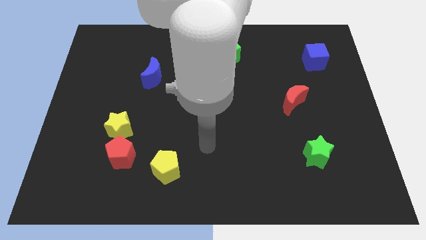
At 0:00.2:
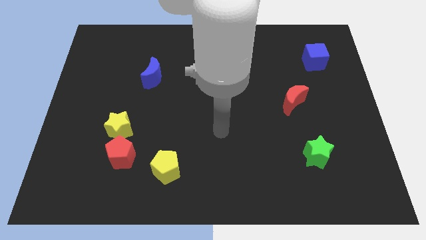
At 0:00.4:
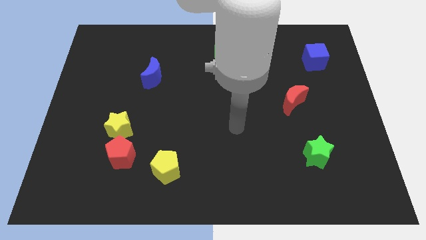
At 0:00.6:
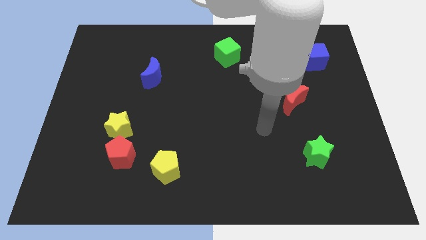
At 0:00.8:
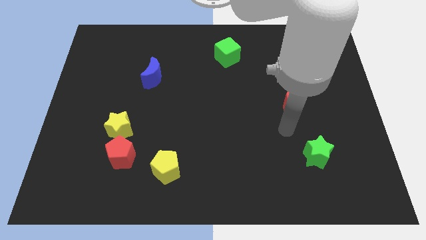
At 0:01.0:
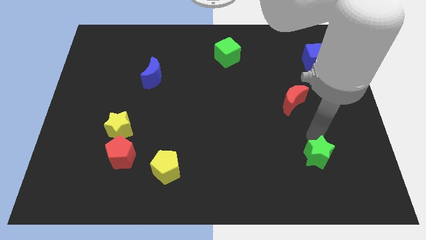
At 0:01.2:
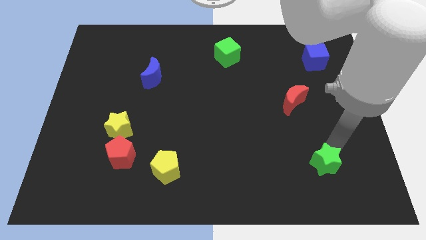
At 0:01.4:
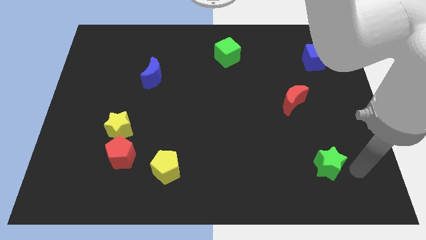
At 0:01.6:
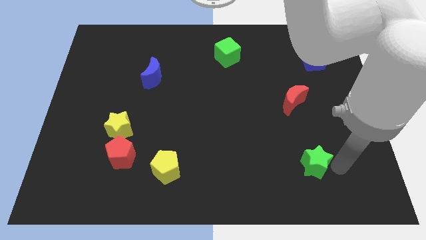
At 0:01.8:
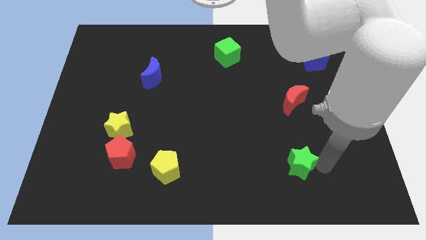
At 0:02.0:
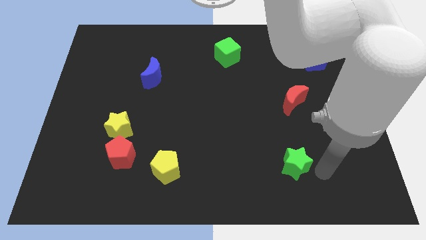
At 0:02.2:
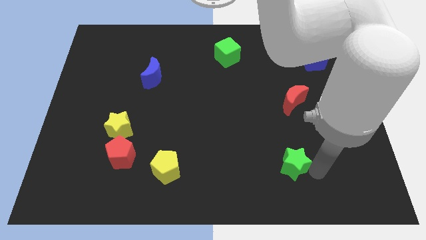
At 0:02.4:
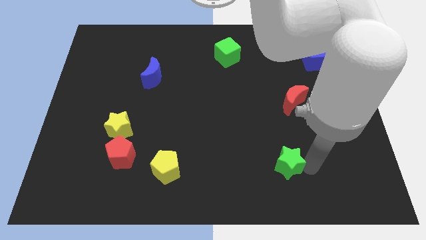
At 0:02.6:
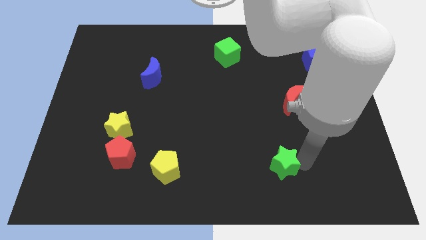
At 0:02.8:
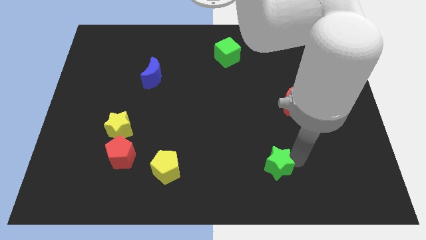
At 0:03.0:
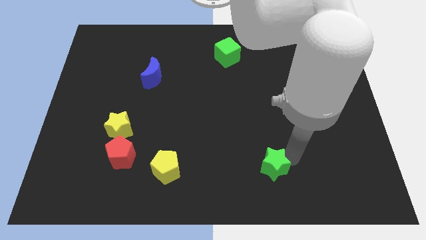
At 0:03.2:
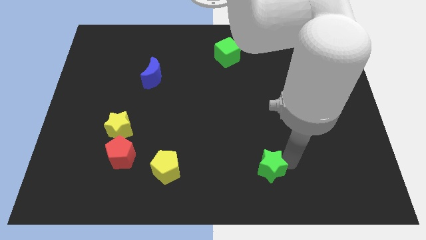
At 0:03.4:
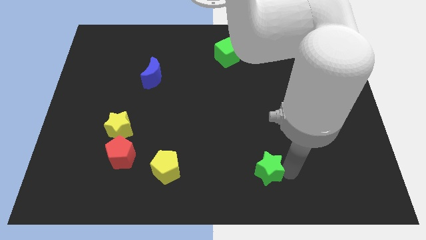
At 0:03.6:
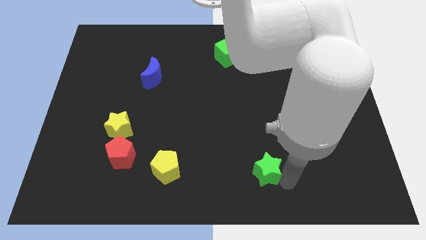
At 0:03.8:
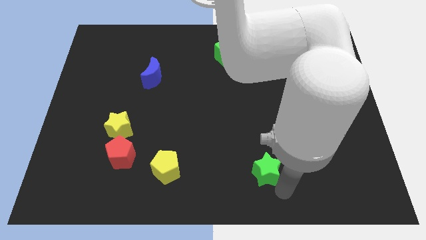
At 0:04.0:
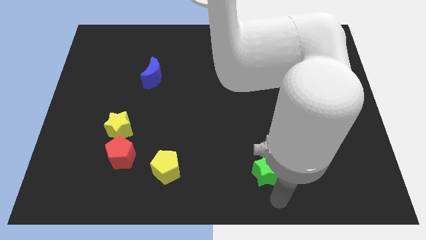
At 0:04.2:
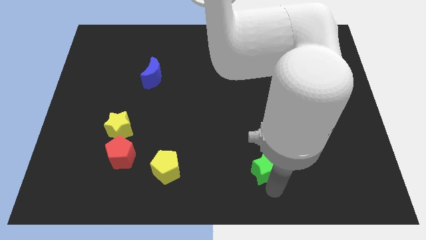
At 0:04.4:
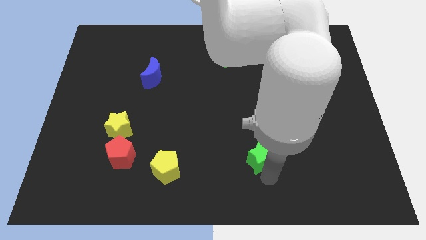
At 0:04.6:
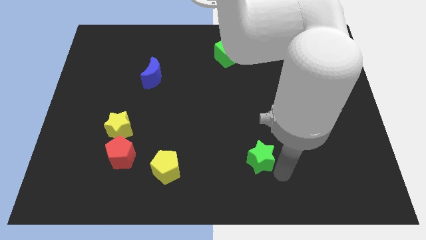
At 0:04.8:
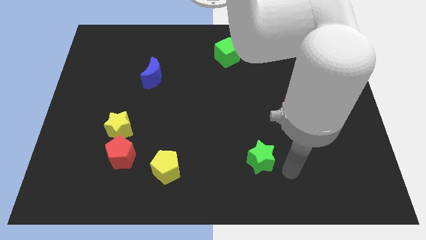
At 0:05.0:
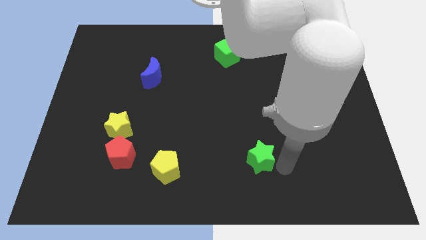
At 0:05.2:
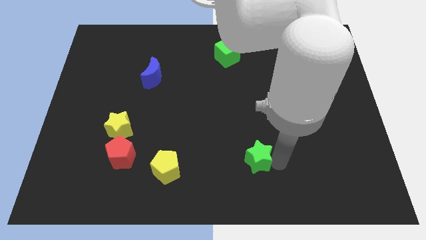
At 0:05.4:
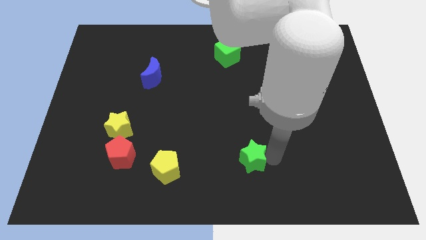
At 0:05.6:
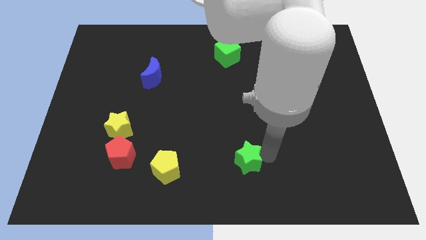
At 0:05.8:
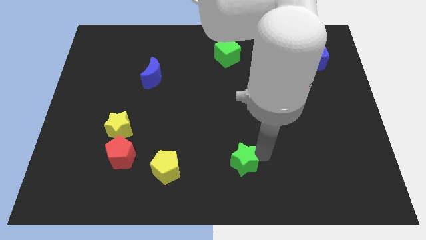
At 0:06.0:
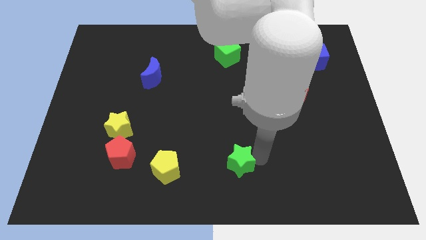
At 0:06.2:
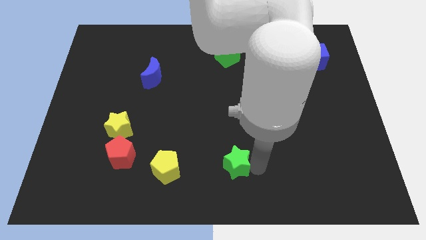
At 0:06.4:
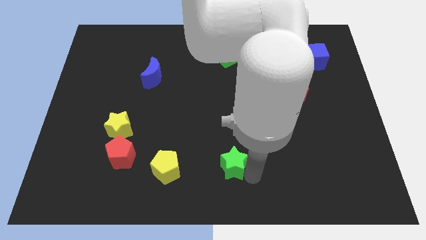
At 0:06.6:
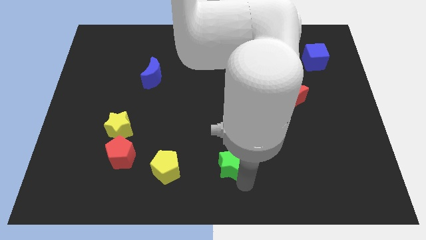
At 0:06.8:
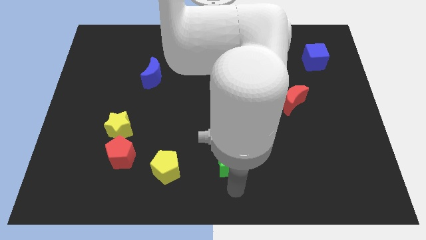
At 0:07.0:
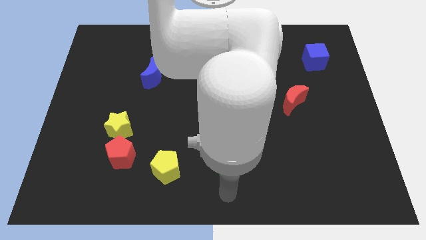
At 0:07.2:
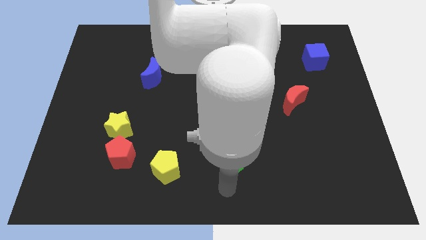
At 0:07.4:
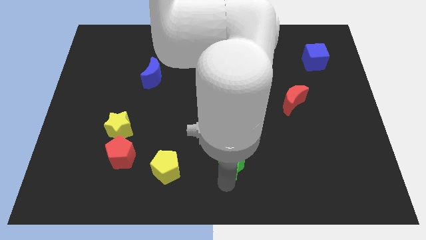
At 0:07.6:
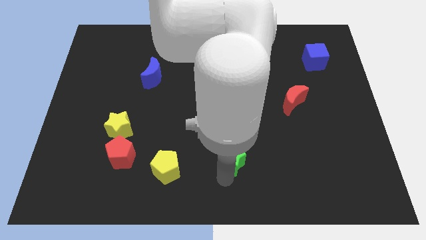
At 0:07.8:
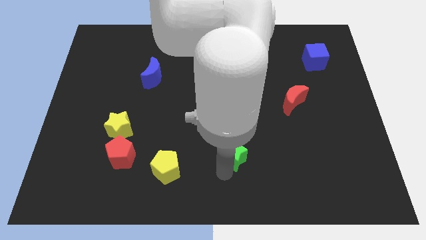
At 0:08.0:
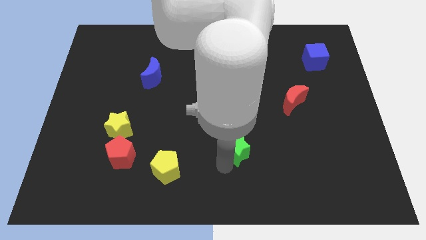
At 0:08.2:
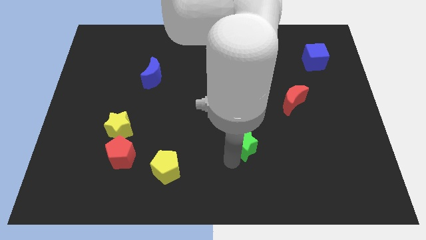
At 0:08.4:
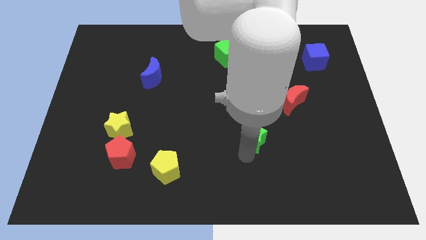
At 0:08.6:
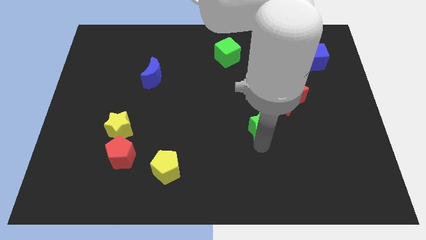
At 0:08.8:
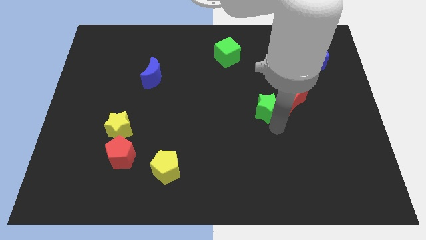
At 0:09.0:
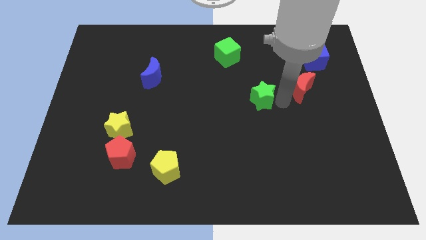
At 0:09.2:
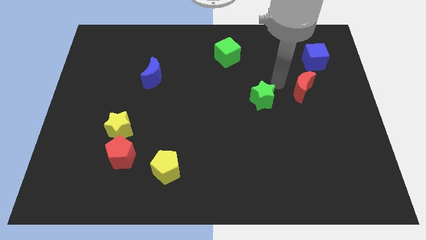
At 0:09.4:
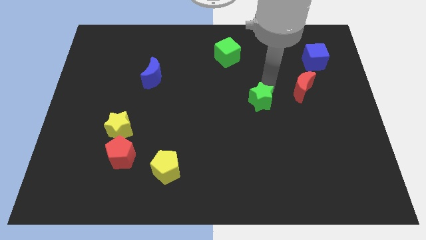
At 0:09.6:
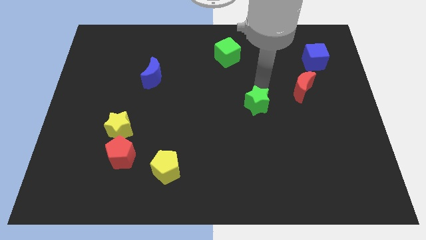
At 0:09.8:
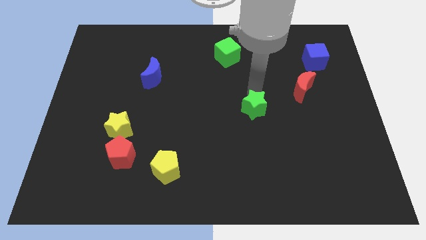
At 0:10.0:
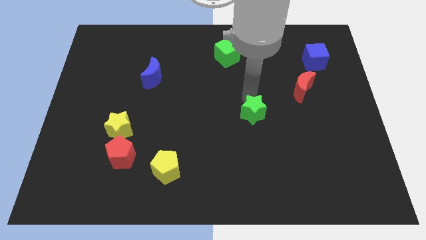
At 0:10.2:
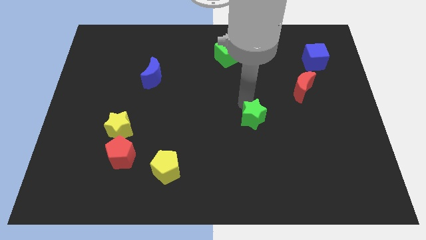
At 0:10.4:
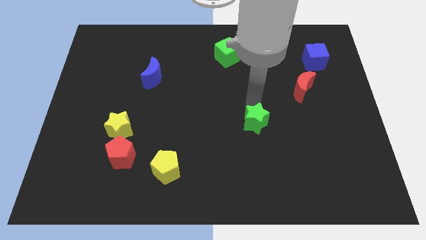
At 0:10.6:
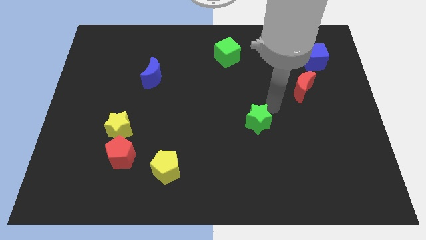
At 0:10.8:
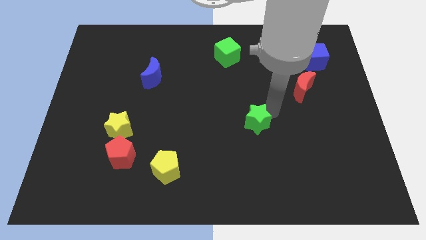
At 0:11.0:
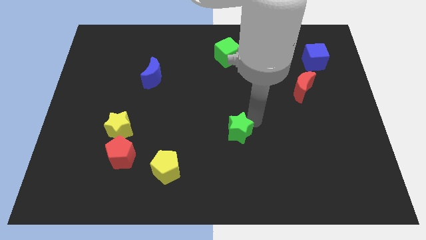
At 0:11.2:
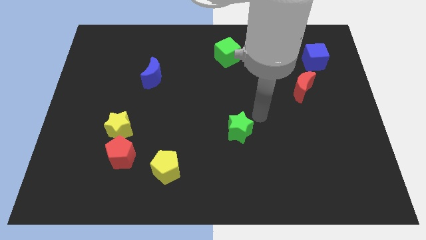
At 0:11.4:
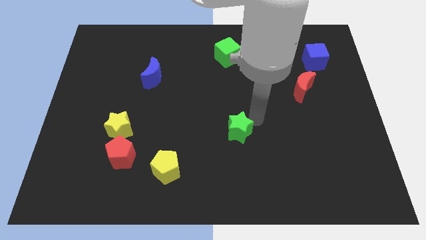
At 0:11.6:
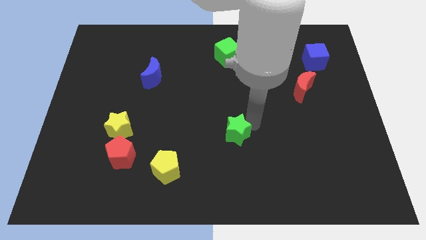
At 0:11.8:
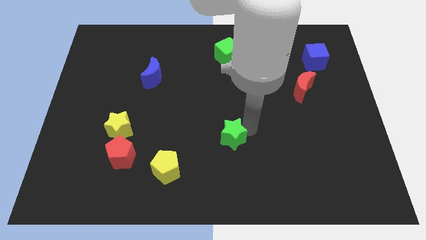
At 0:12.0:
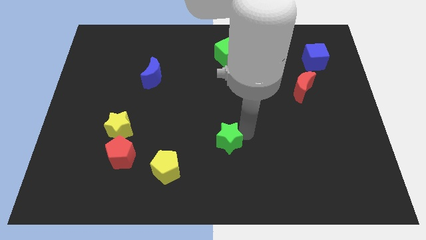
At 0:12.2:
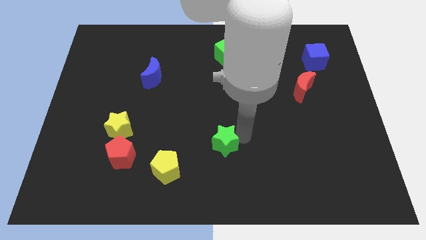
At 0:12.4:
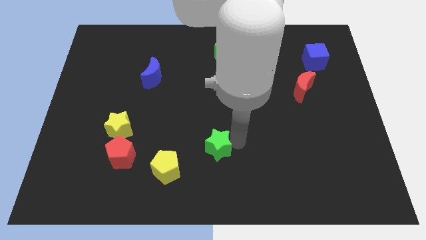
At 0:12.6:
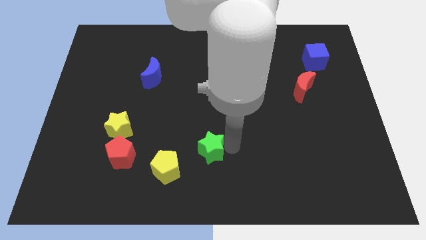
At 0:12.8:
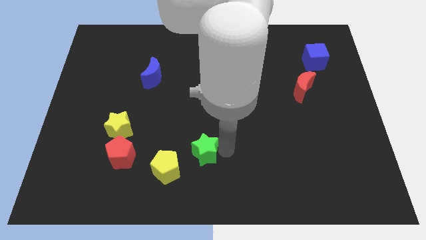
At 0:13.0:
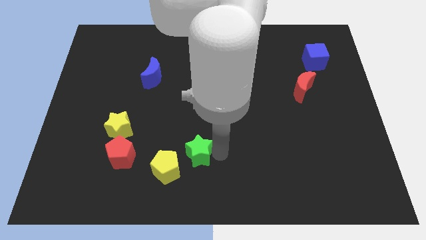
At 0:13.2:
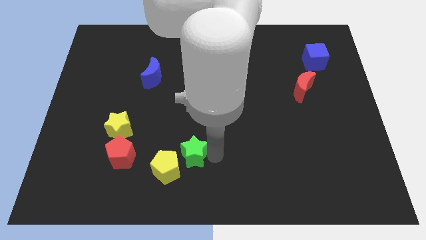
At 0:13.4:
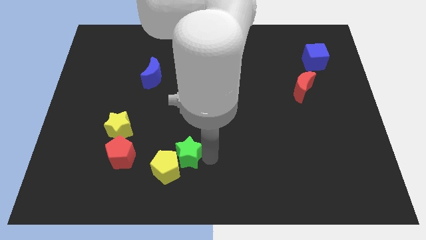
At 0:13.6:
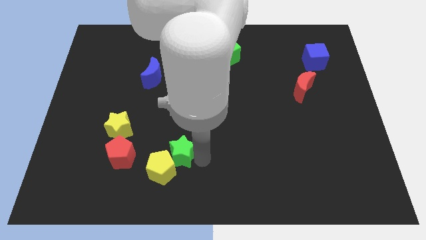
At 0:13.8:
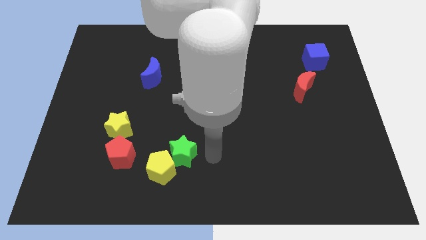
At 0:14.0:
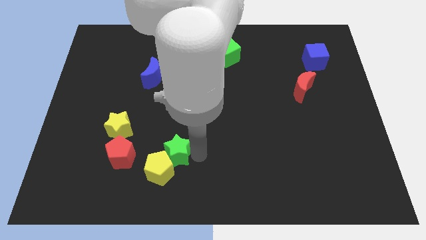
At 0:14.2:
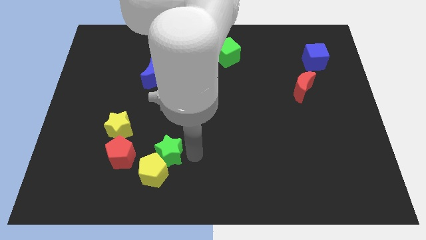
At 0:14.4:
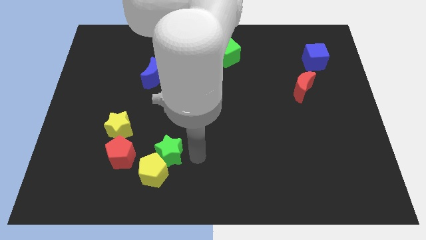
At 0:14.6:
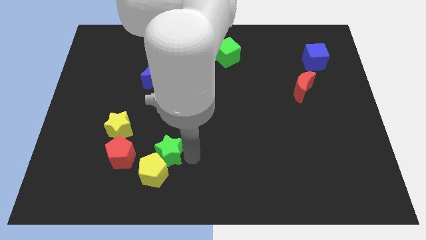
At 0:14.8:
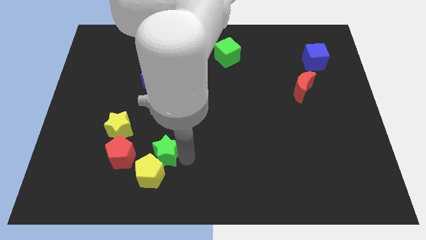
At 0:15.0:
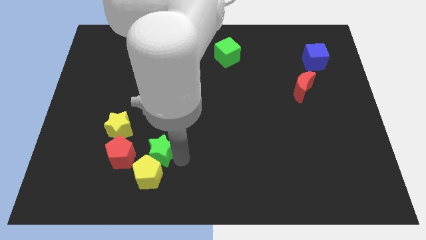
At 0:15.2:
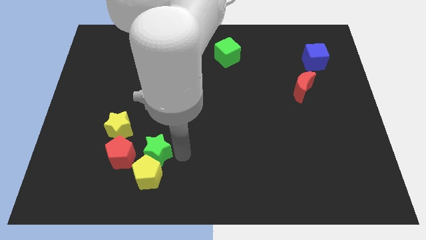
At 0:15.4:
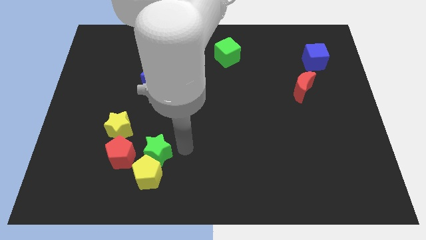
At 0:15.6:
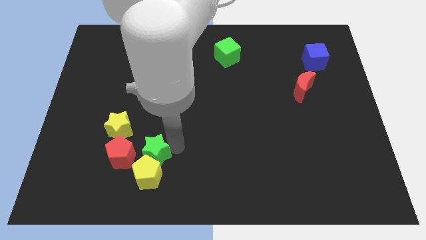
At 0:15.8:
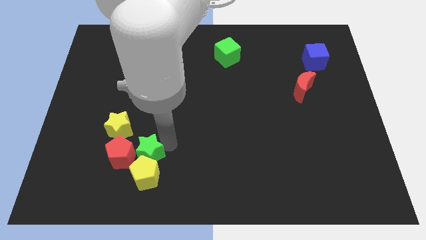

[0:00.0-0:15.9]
move the green star next to the red pentagon
